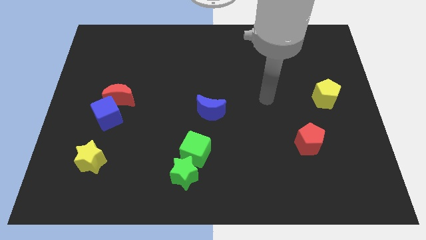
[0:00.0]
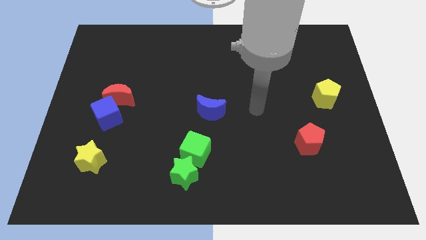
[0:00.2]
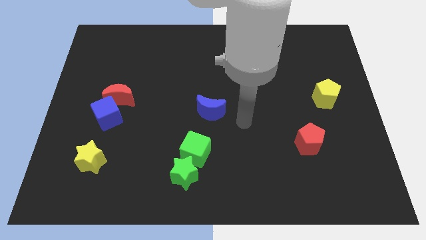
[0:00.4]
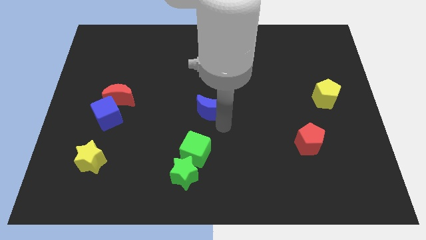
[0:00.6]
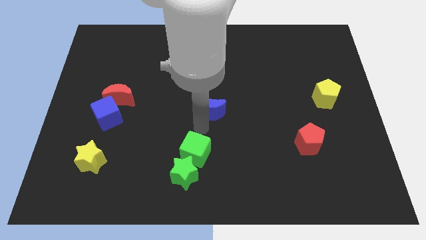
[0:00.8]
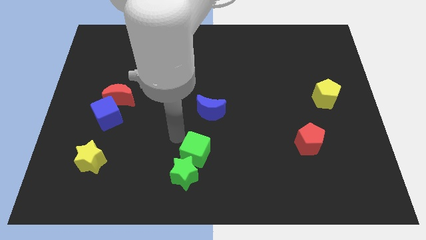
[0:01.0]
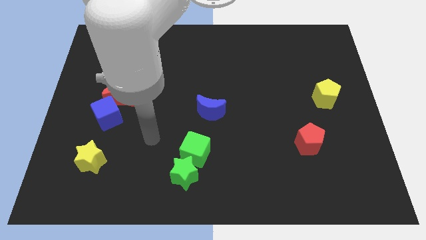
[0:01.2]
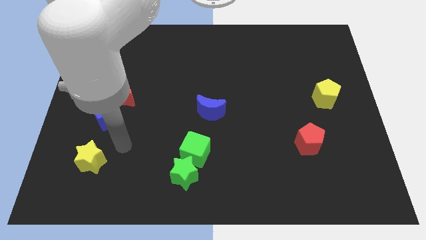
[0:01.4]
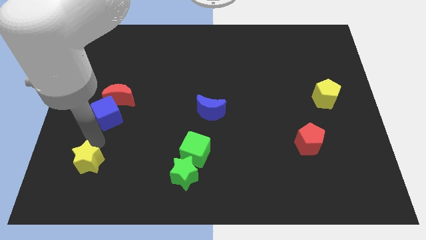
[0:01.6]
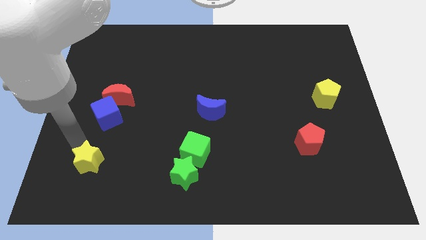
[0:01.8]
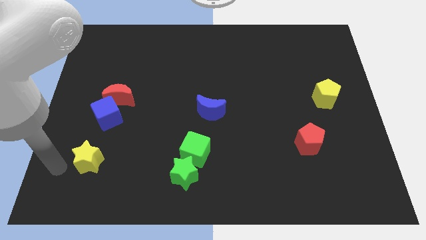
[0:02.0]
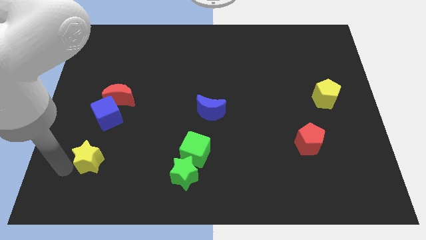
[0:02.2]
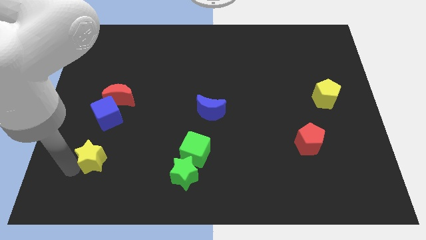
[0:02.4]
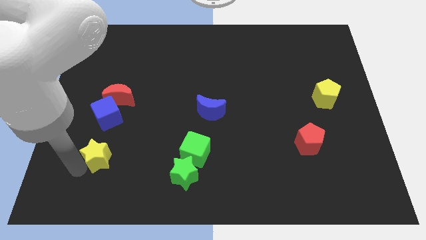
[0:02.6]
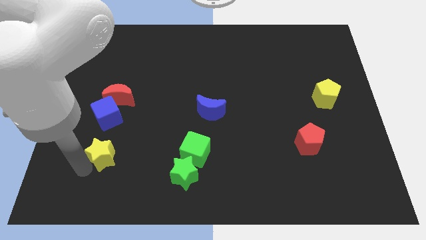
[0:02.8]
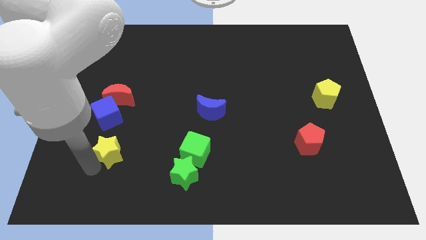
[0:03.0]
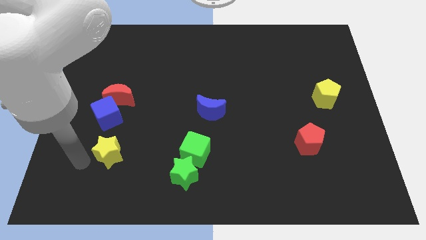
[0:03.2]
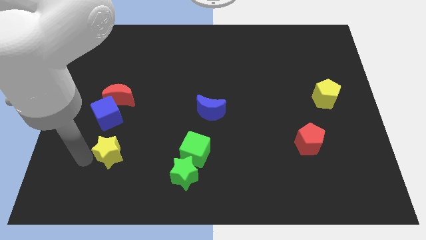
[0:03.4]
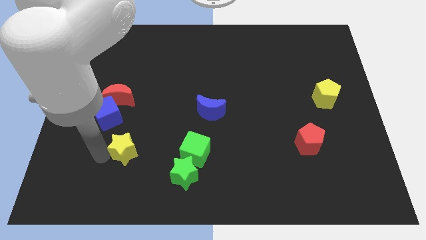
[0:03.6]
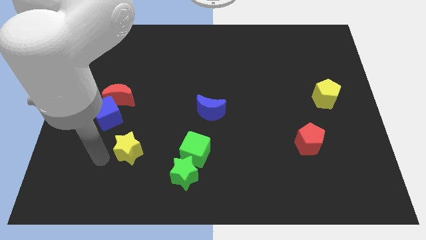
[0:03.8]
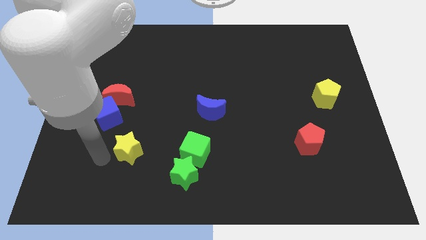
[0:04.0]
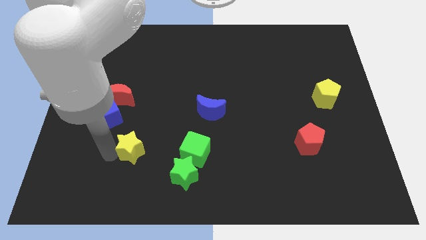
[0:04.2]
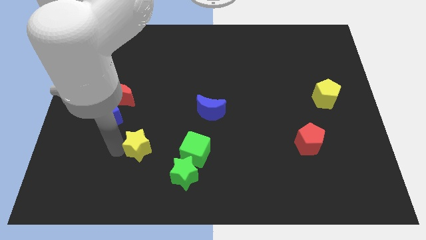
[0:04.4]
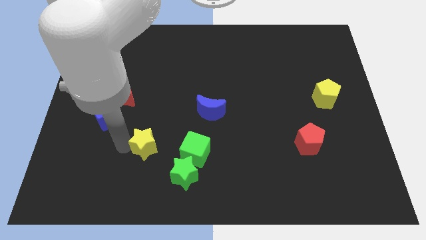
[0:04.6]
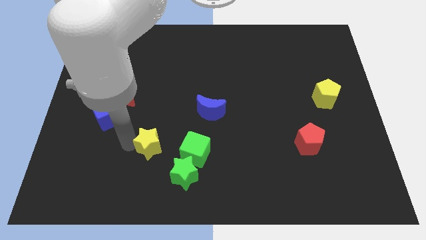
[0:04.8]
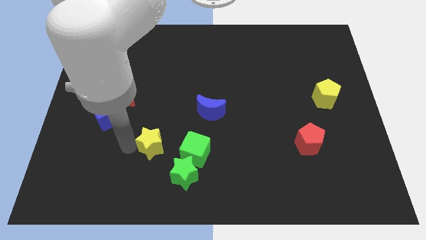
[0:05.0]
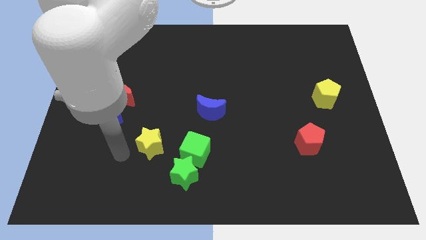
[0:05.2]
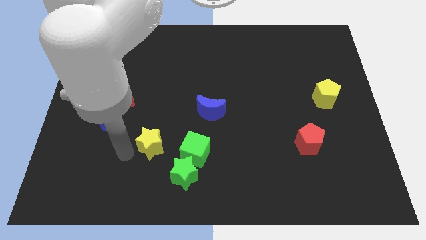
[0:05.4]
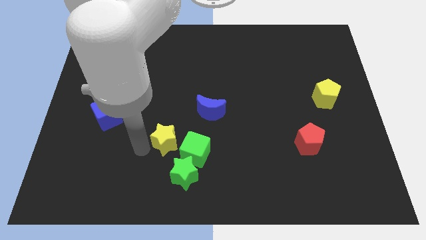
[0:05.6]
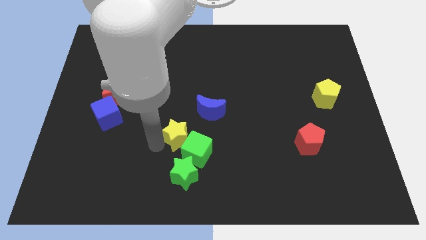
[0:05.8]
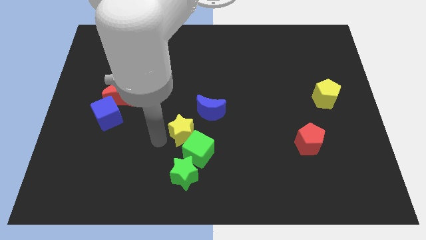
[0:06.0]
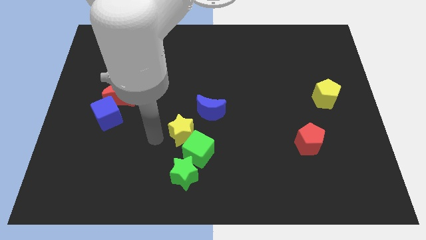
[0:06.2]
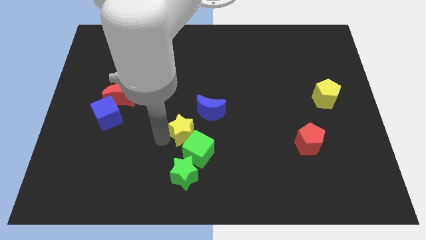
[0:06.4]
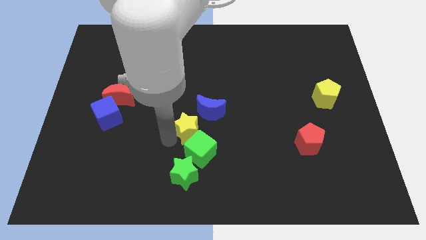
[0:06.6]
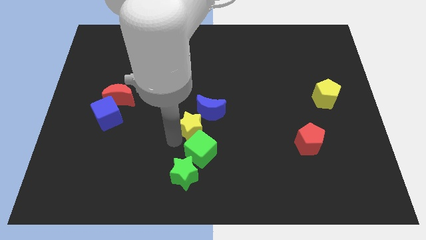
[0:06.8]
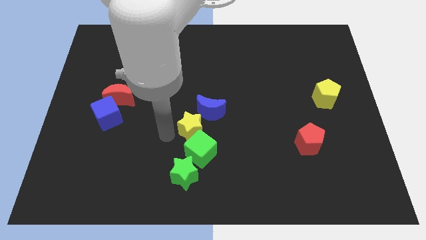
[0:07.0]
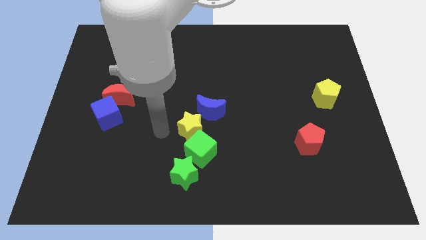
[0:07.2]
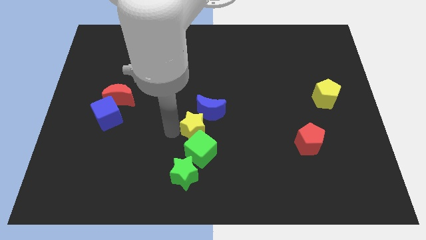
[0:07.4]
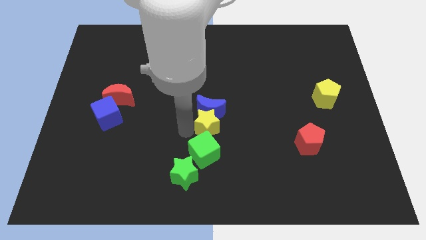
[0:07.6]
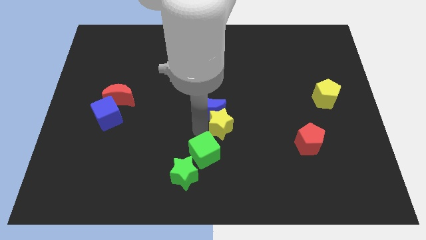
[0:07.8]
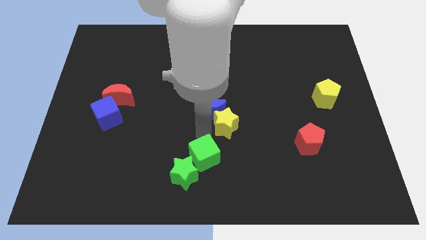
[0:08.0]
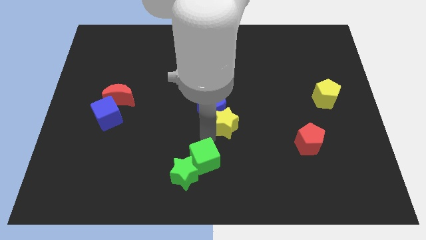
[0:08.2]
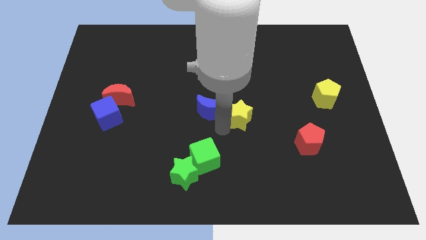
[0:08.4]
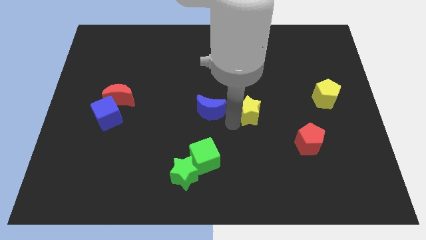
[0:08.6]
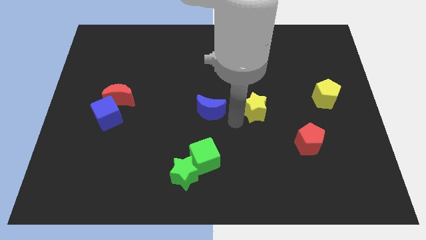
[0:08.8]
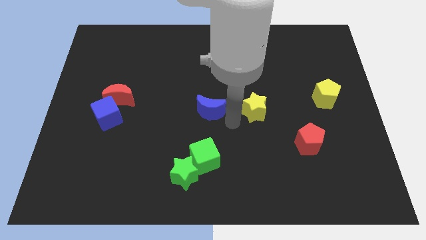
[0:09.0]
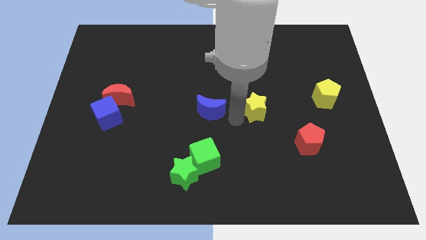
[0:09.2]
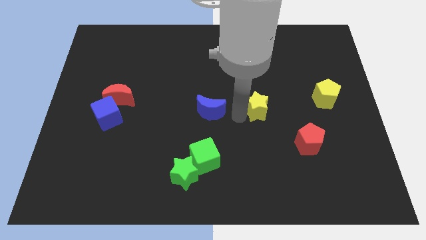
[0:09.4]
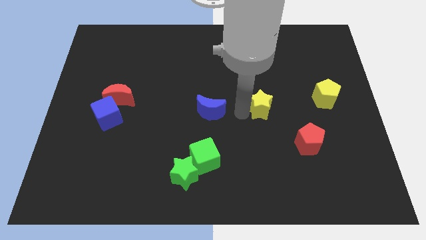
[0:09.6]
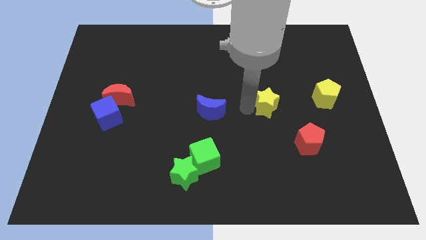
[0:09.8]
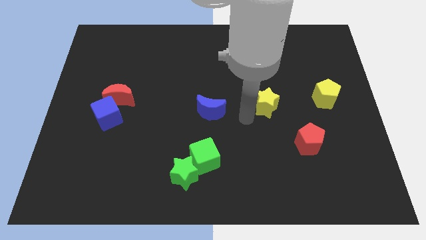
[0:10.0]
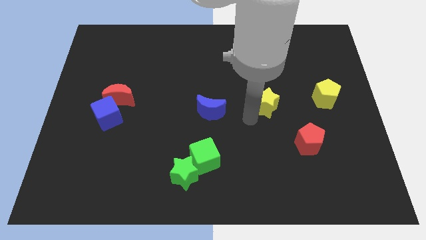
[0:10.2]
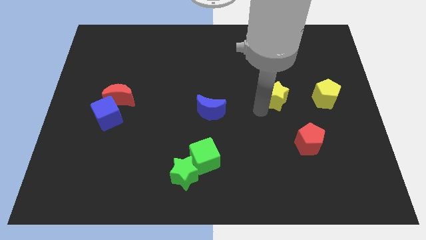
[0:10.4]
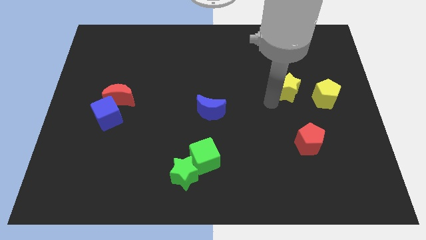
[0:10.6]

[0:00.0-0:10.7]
push the yellow star diagonally up and to the left of the yellow pentagon

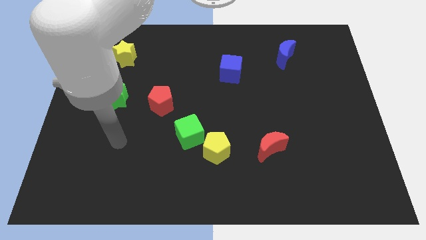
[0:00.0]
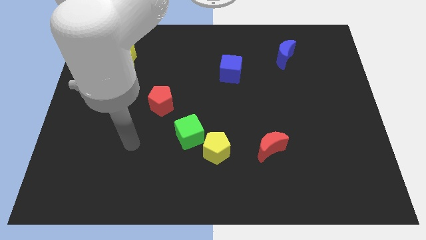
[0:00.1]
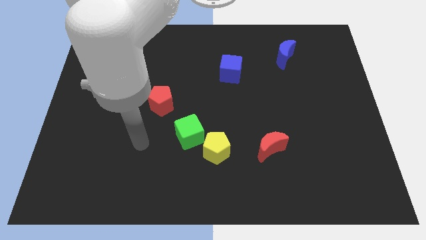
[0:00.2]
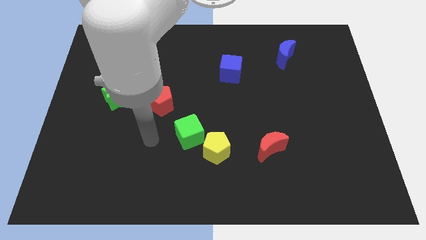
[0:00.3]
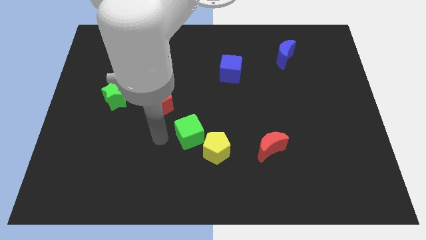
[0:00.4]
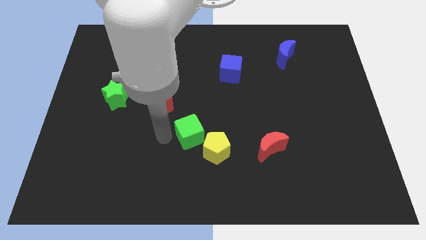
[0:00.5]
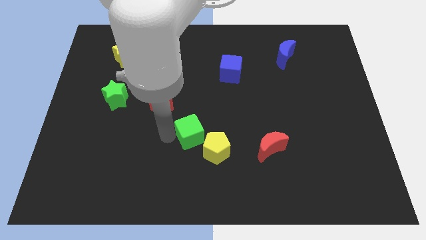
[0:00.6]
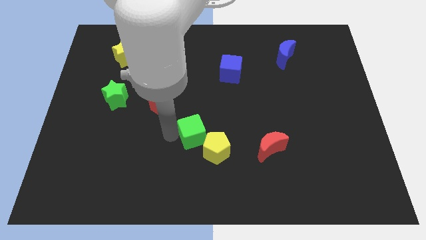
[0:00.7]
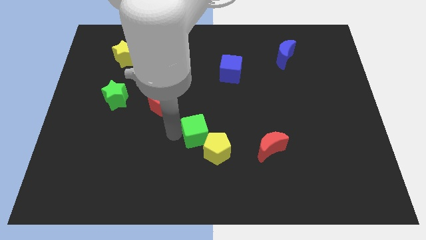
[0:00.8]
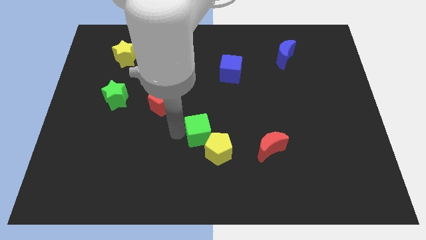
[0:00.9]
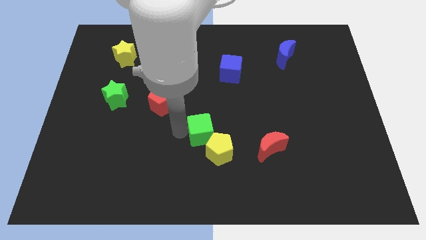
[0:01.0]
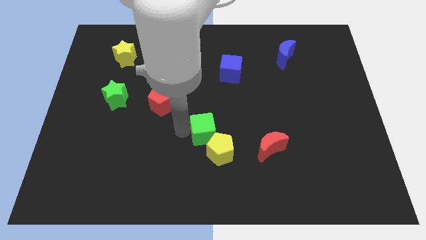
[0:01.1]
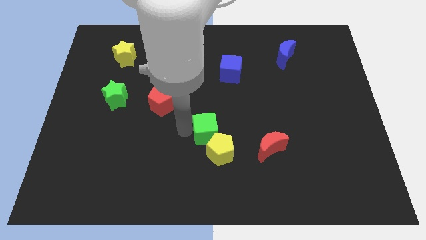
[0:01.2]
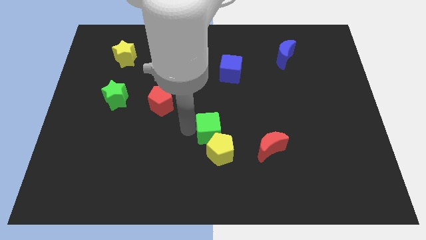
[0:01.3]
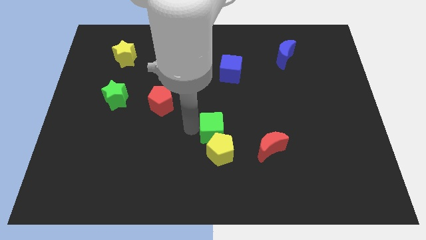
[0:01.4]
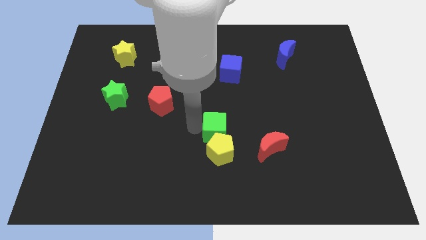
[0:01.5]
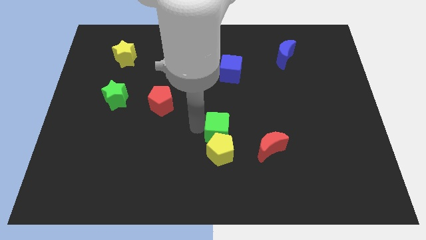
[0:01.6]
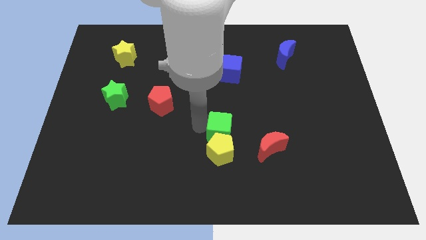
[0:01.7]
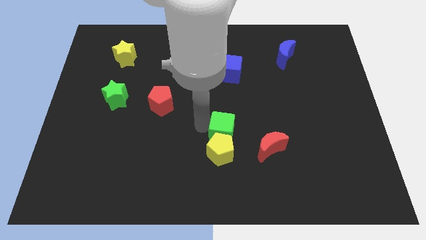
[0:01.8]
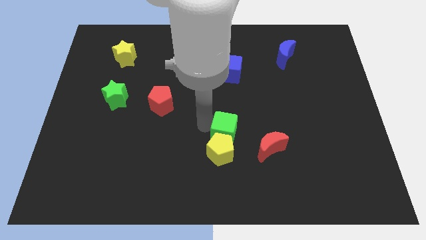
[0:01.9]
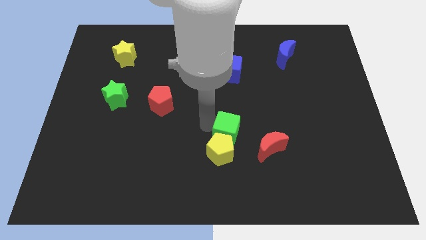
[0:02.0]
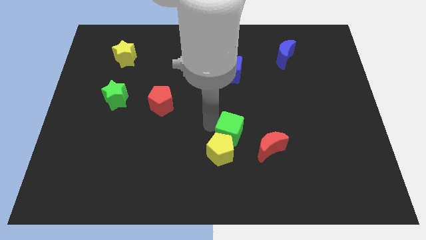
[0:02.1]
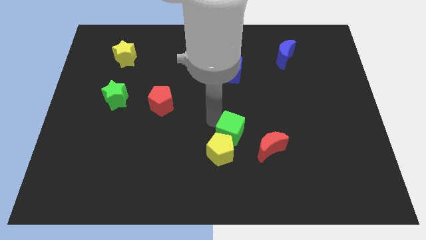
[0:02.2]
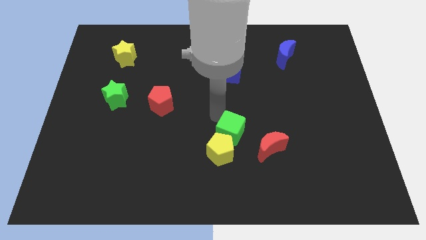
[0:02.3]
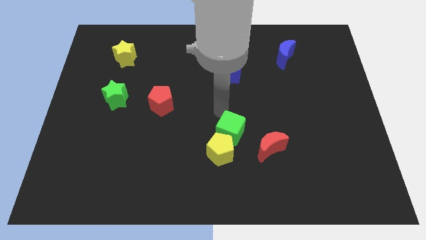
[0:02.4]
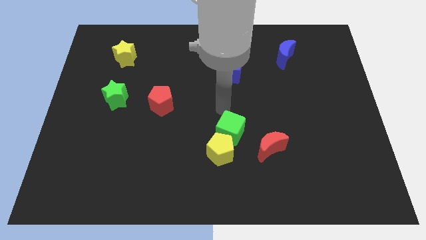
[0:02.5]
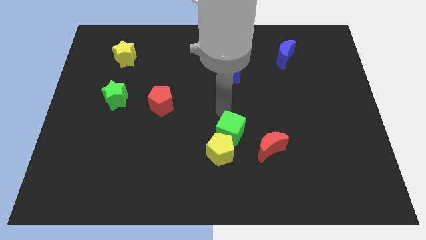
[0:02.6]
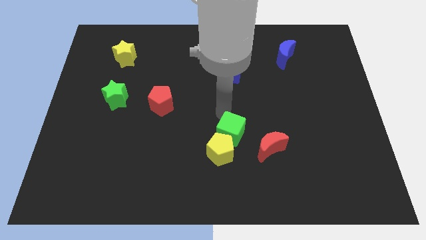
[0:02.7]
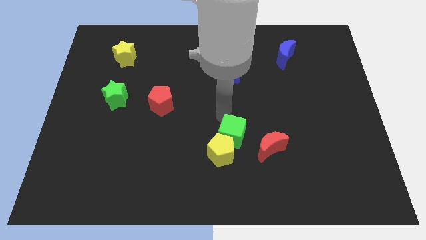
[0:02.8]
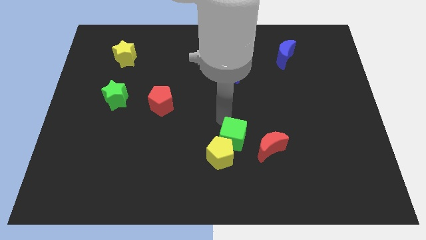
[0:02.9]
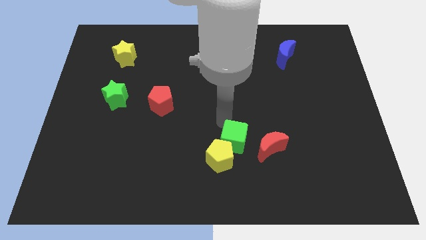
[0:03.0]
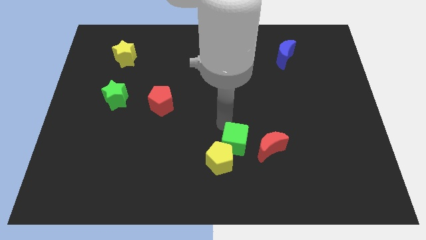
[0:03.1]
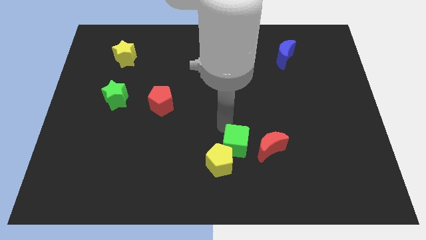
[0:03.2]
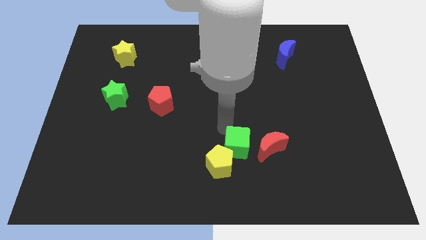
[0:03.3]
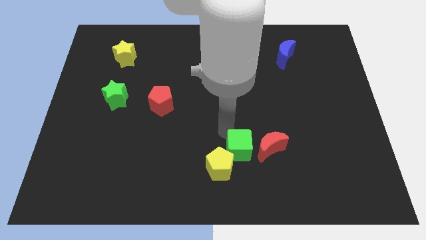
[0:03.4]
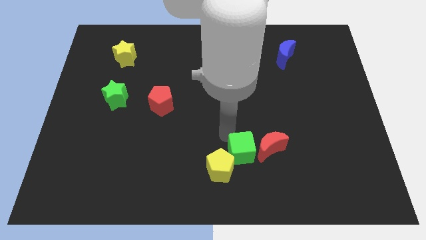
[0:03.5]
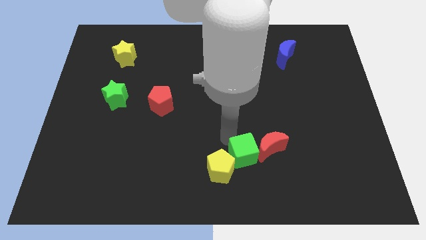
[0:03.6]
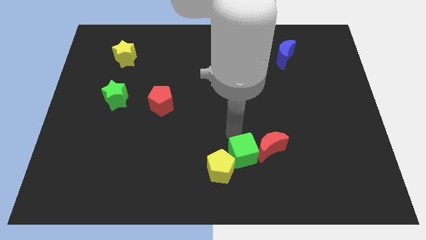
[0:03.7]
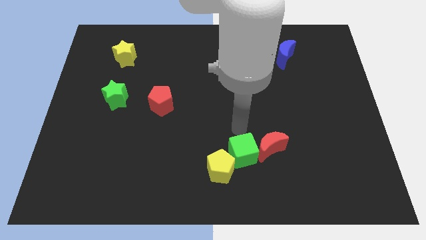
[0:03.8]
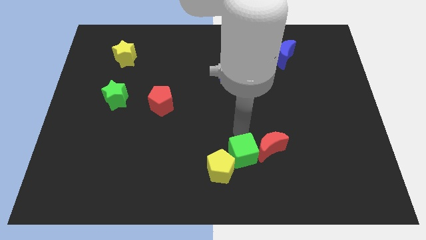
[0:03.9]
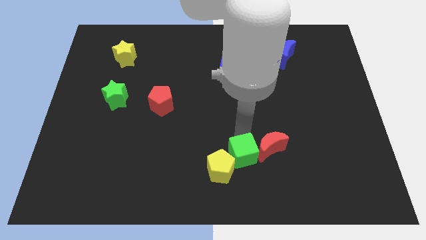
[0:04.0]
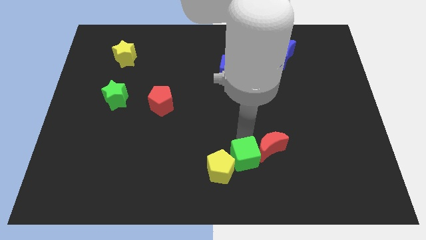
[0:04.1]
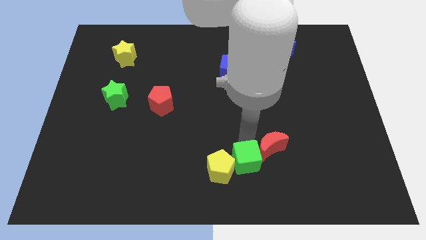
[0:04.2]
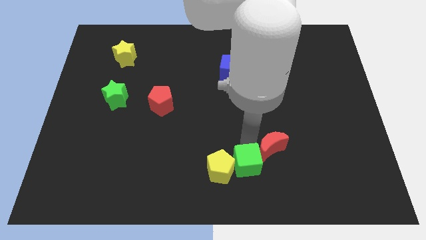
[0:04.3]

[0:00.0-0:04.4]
push the green cube diagonally down and to the right of the yellow pentagon
